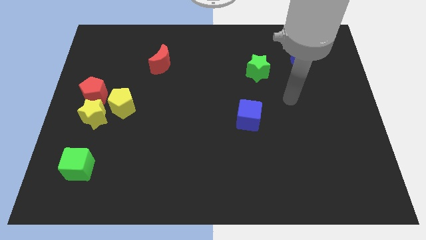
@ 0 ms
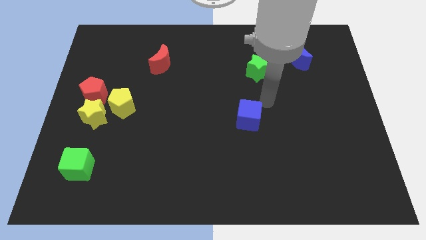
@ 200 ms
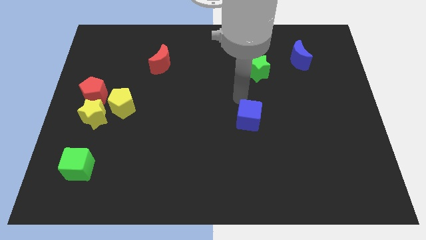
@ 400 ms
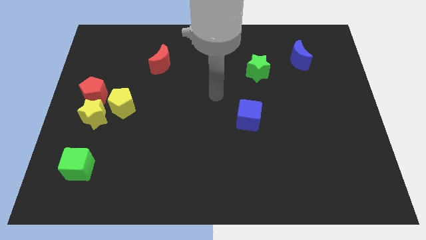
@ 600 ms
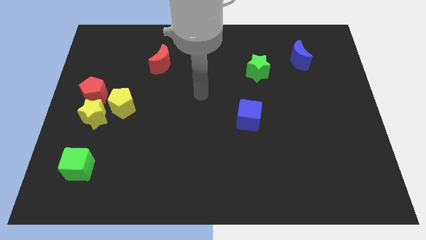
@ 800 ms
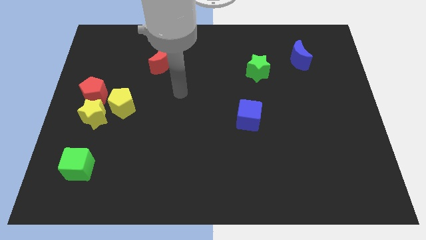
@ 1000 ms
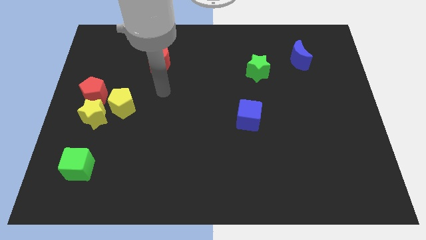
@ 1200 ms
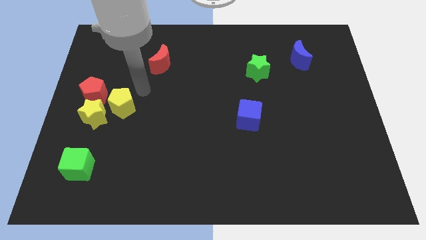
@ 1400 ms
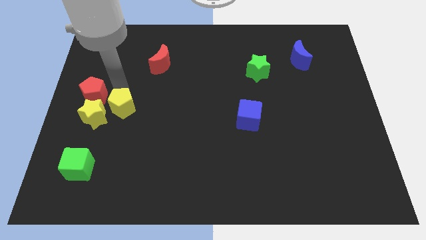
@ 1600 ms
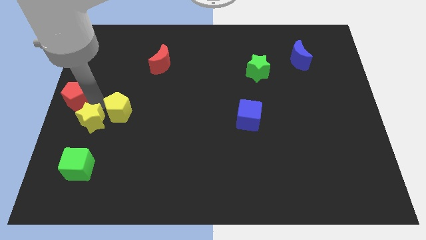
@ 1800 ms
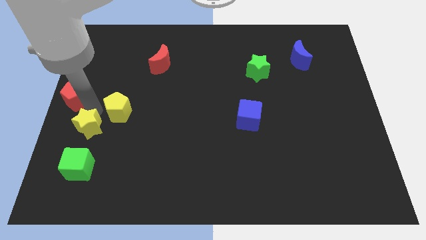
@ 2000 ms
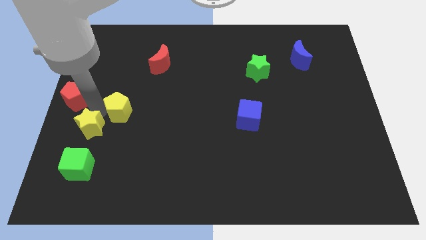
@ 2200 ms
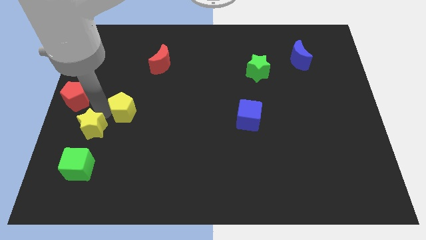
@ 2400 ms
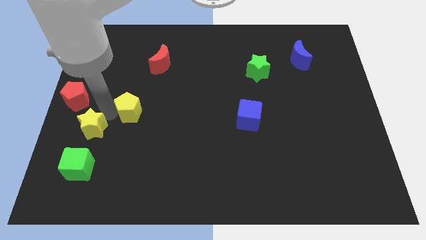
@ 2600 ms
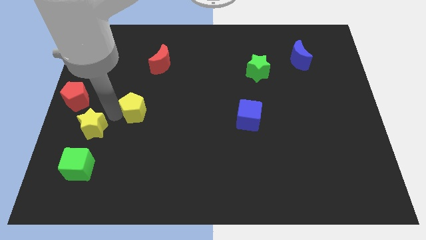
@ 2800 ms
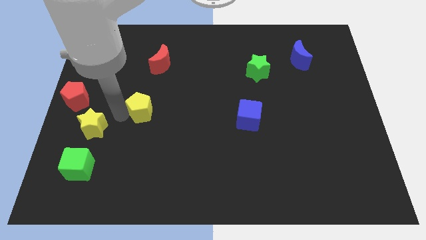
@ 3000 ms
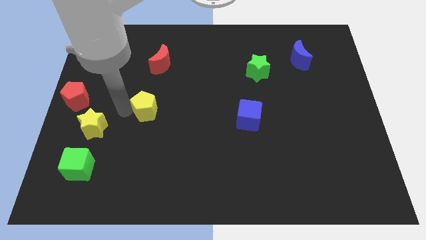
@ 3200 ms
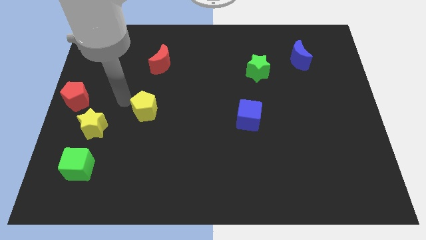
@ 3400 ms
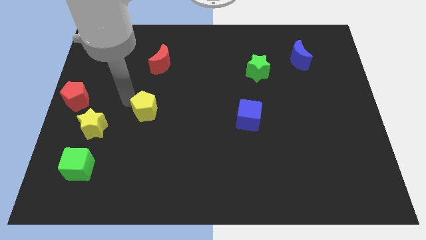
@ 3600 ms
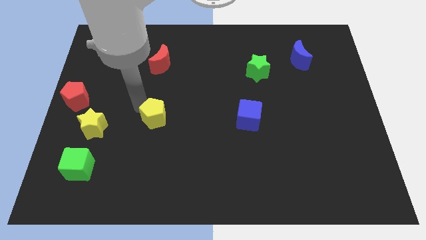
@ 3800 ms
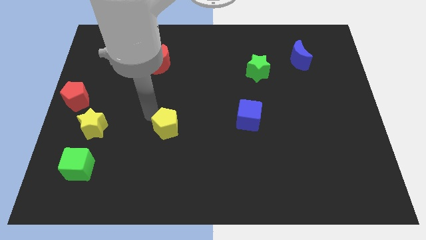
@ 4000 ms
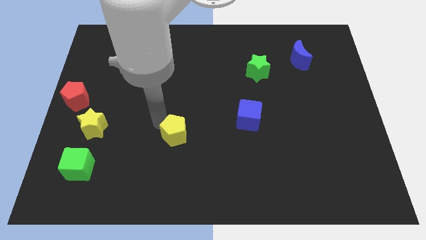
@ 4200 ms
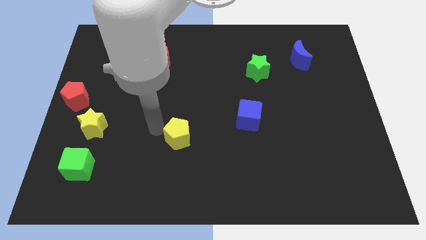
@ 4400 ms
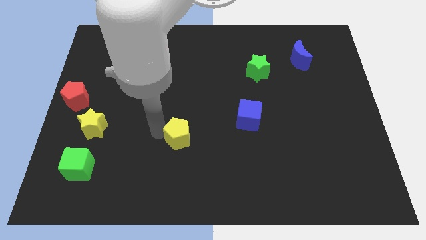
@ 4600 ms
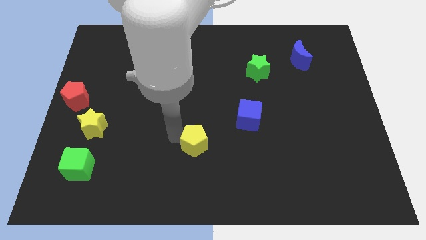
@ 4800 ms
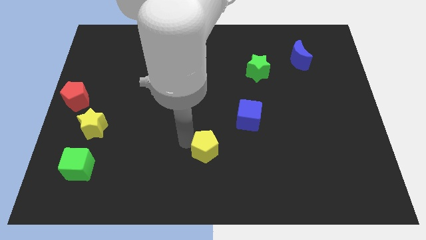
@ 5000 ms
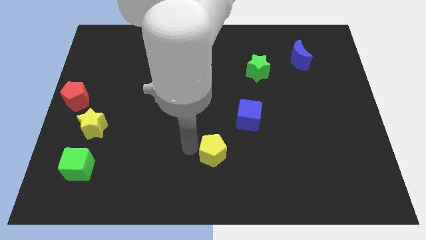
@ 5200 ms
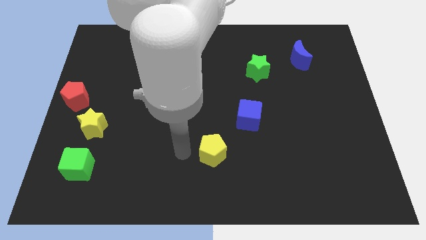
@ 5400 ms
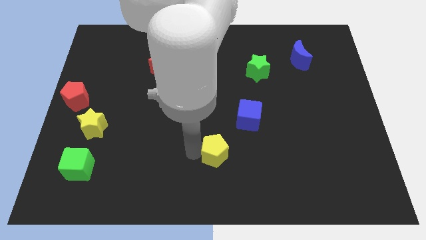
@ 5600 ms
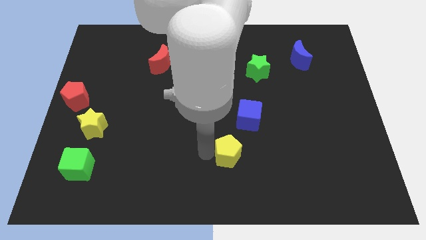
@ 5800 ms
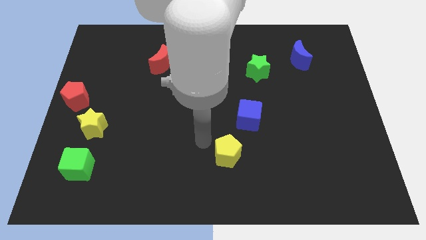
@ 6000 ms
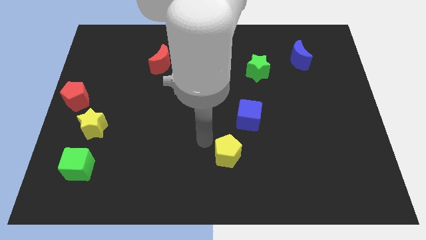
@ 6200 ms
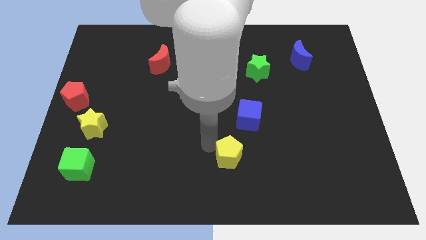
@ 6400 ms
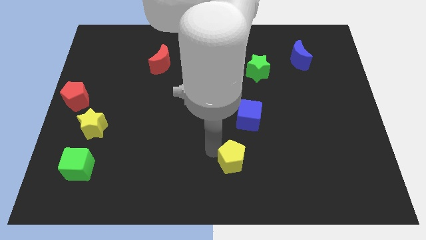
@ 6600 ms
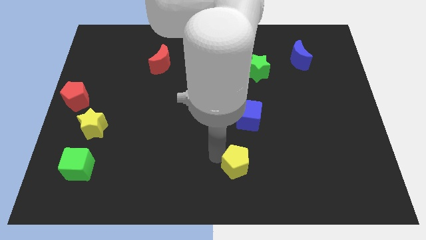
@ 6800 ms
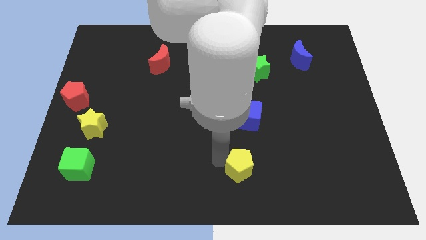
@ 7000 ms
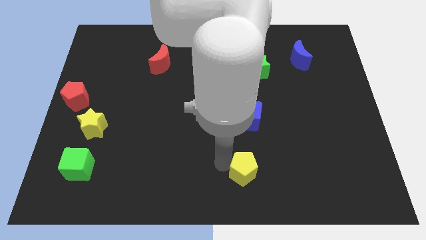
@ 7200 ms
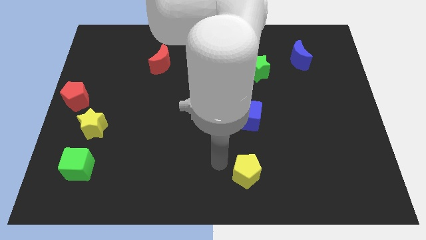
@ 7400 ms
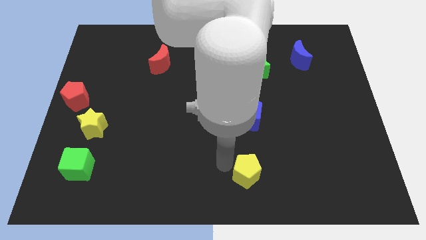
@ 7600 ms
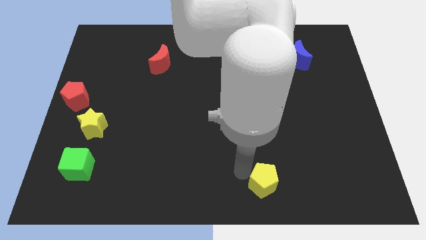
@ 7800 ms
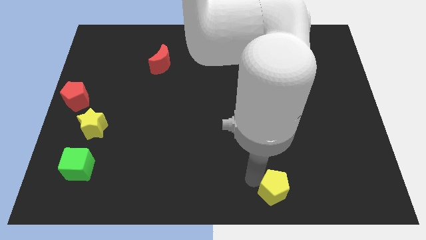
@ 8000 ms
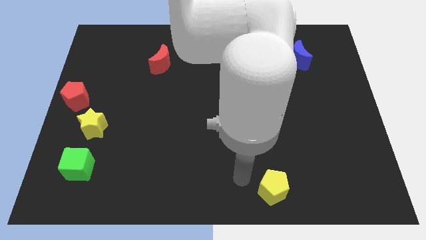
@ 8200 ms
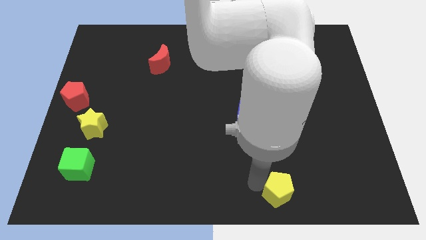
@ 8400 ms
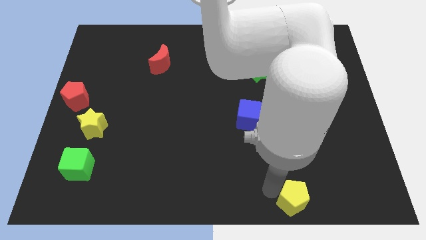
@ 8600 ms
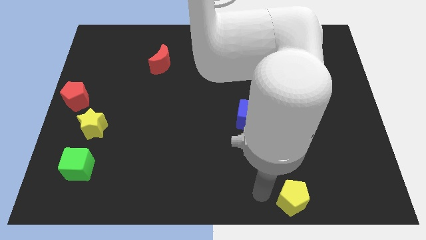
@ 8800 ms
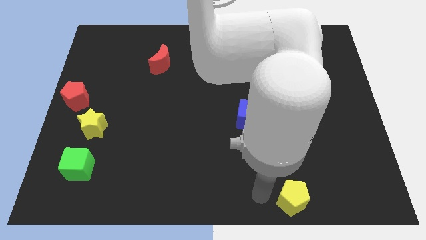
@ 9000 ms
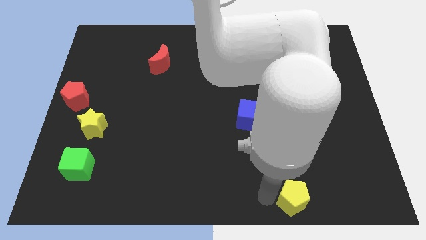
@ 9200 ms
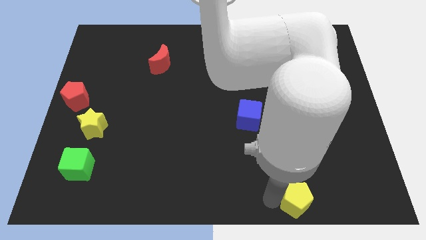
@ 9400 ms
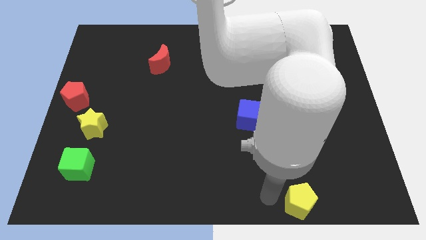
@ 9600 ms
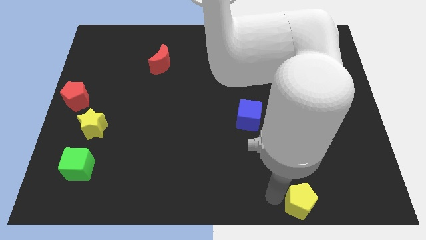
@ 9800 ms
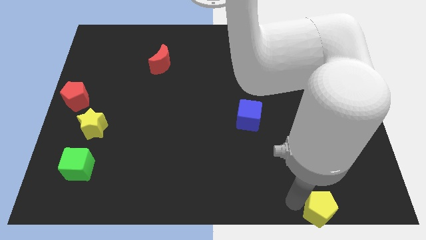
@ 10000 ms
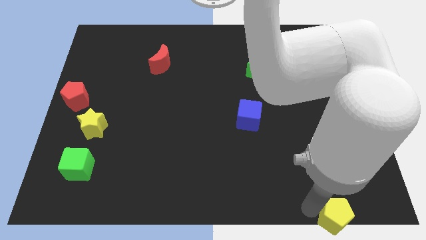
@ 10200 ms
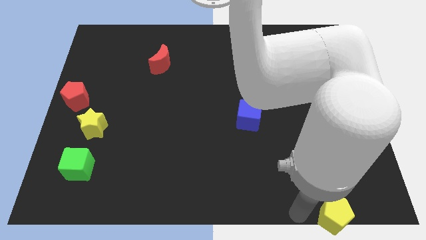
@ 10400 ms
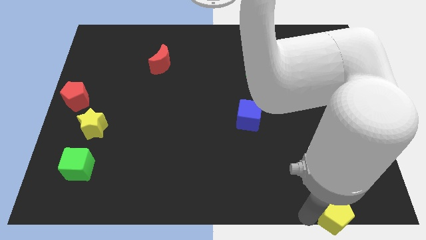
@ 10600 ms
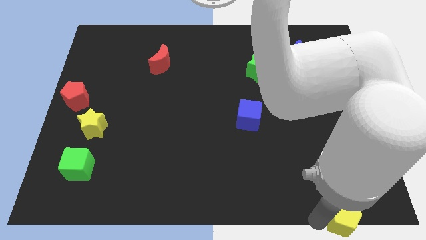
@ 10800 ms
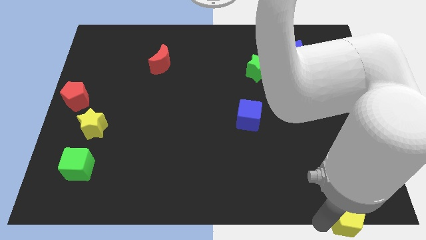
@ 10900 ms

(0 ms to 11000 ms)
push the yellow pentagon to the bottom right corner

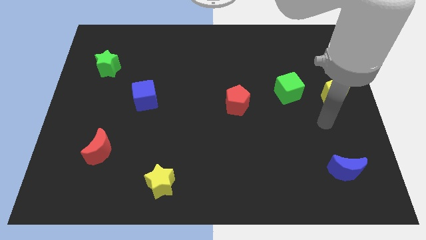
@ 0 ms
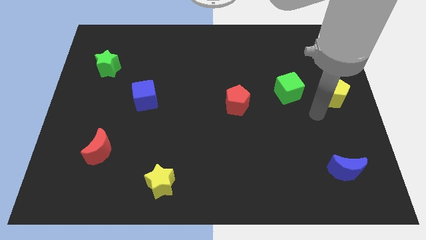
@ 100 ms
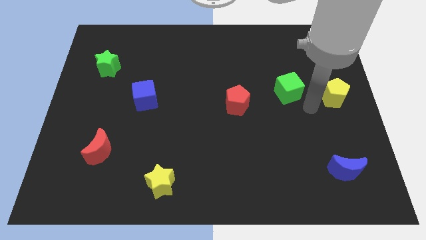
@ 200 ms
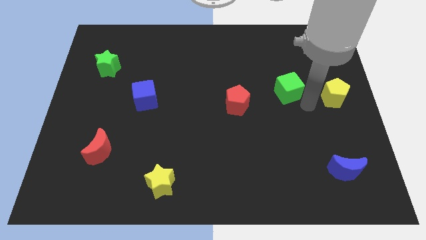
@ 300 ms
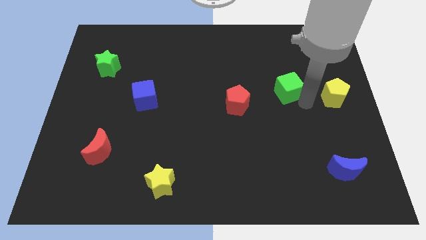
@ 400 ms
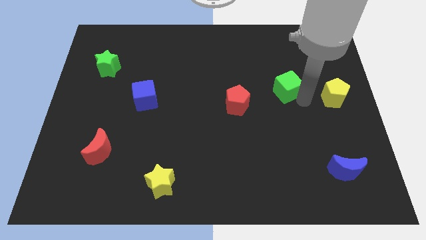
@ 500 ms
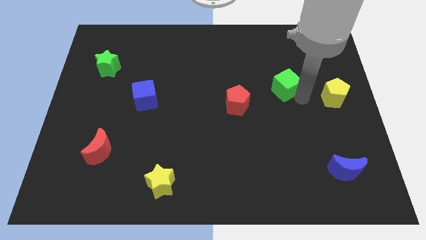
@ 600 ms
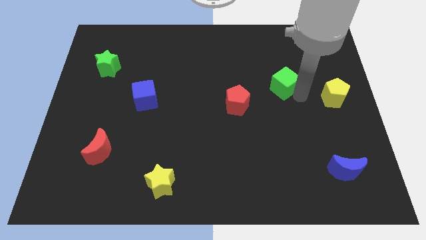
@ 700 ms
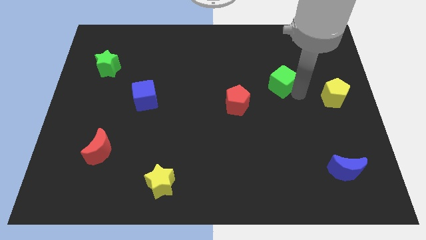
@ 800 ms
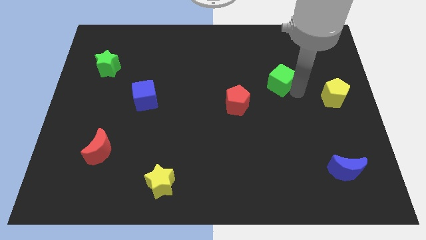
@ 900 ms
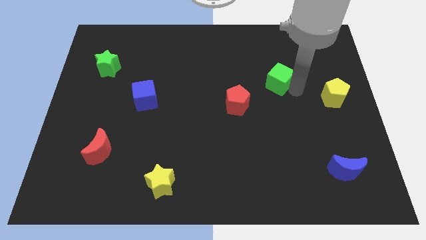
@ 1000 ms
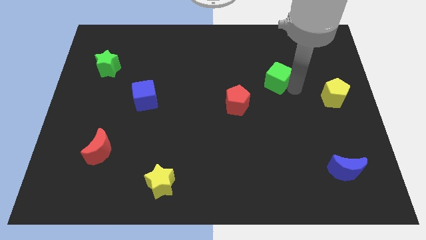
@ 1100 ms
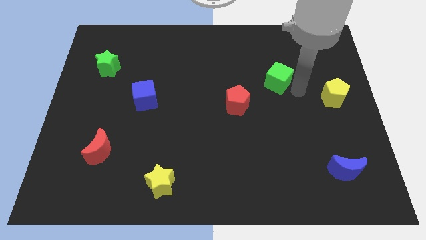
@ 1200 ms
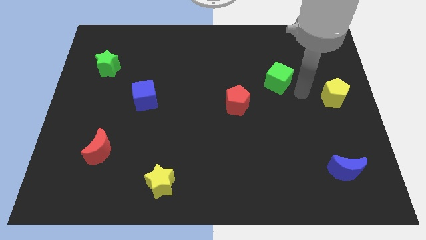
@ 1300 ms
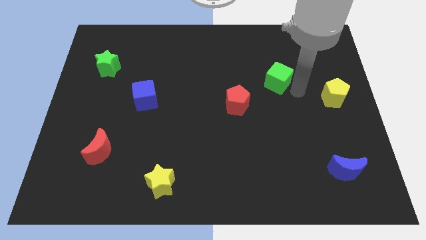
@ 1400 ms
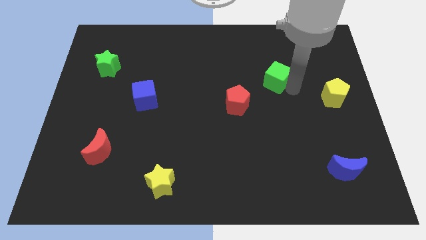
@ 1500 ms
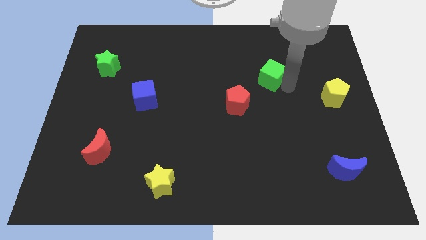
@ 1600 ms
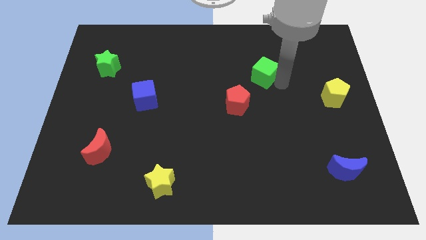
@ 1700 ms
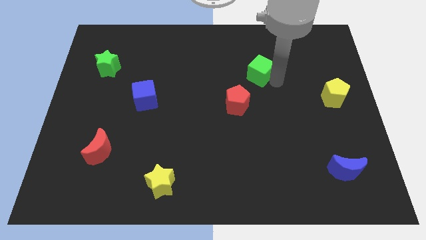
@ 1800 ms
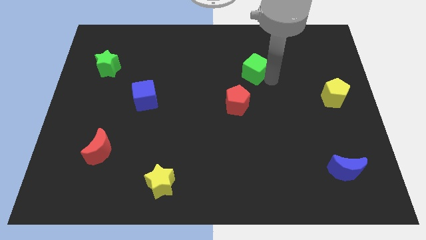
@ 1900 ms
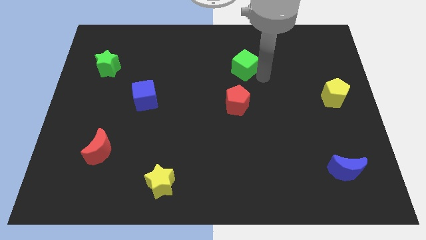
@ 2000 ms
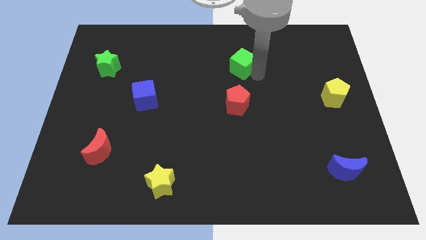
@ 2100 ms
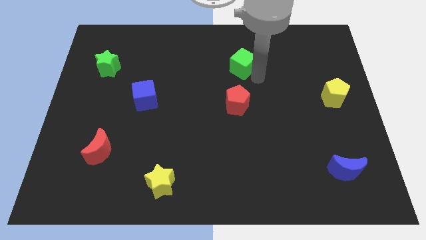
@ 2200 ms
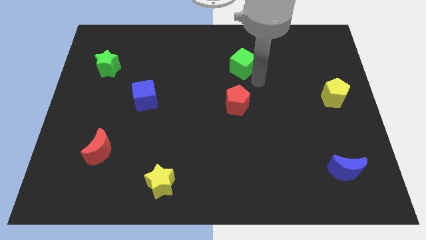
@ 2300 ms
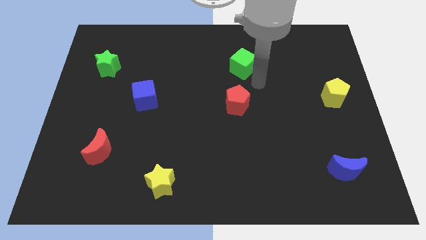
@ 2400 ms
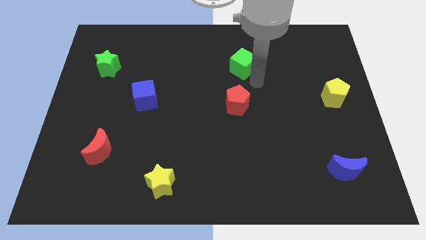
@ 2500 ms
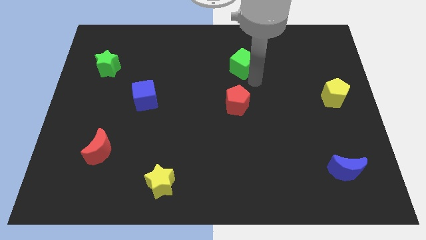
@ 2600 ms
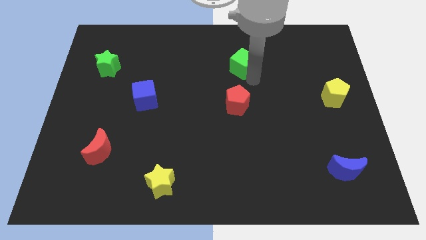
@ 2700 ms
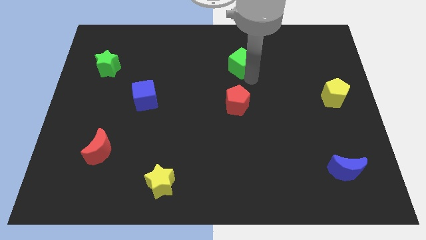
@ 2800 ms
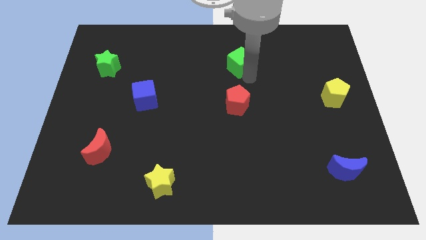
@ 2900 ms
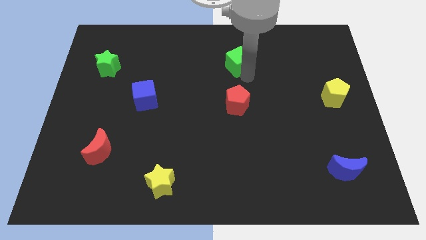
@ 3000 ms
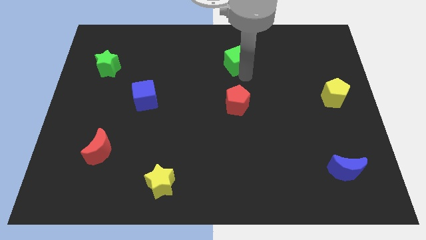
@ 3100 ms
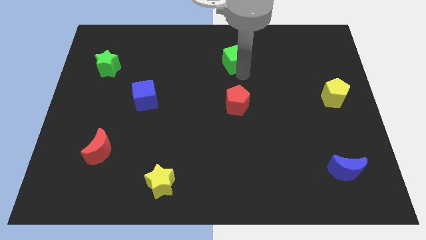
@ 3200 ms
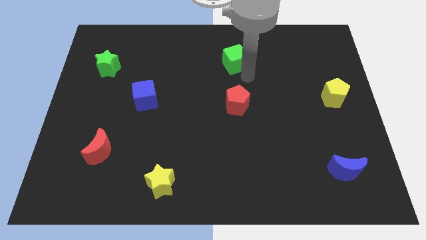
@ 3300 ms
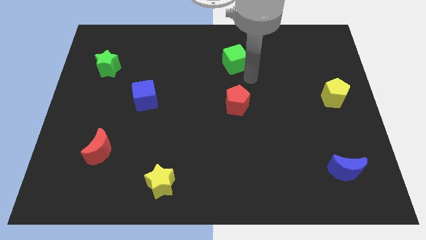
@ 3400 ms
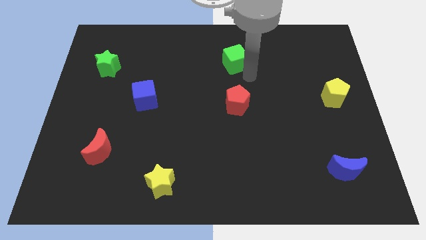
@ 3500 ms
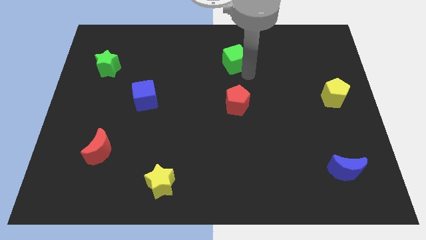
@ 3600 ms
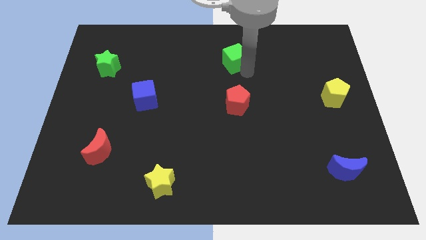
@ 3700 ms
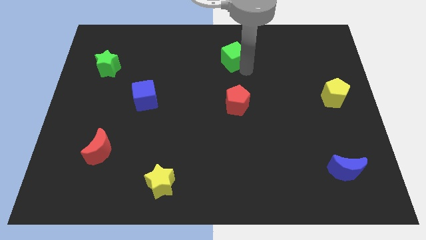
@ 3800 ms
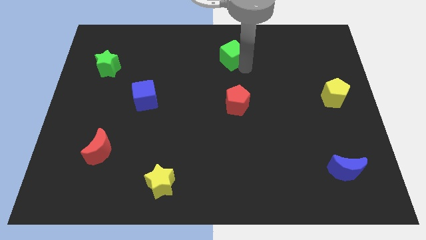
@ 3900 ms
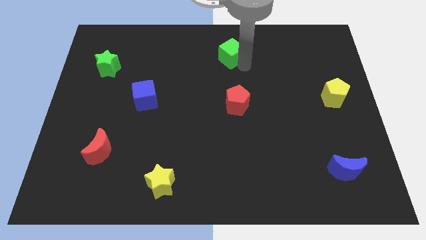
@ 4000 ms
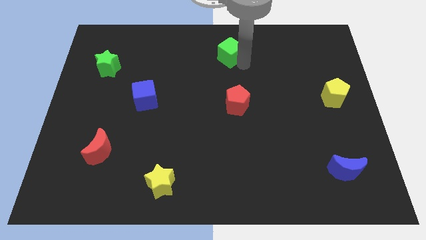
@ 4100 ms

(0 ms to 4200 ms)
push the green cube to the top
